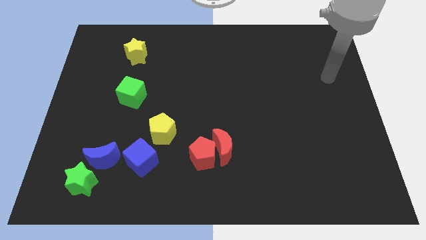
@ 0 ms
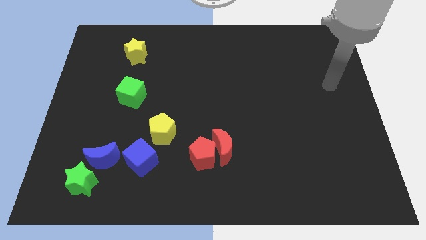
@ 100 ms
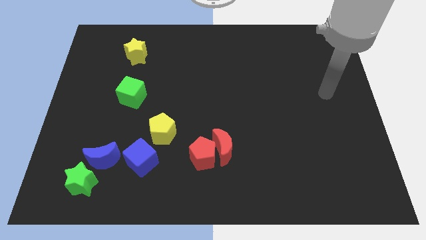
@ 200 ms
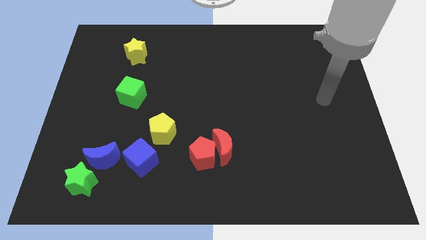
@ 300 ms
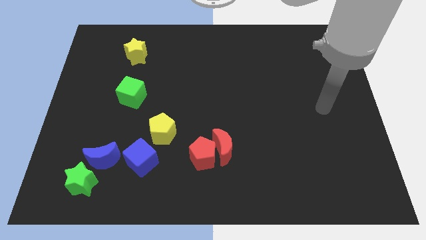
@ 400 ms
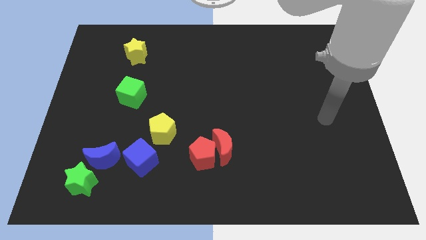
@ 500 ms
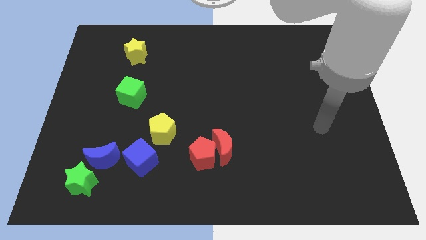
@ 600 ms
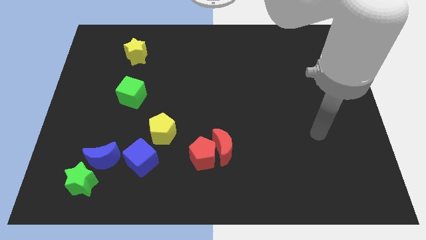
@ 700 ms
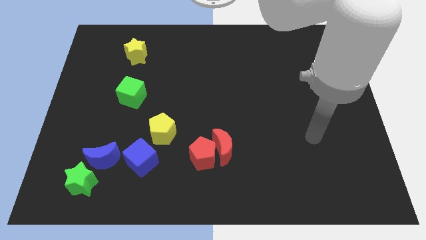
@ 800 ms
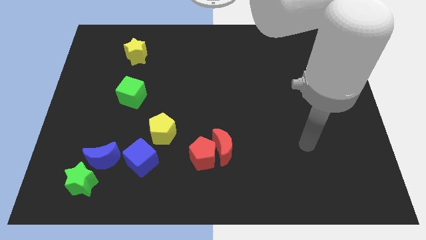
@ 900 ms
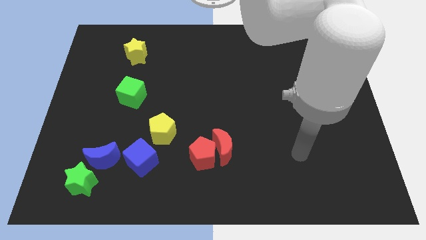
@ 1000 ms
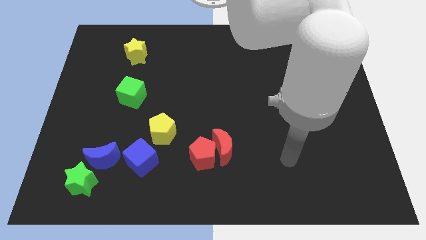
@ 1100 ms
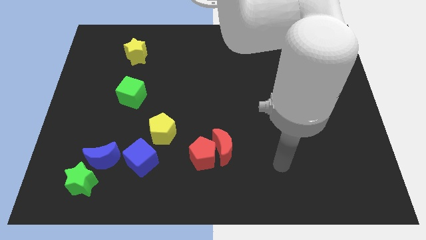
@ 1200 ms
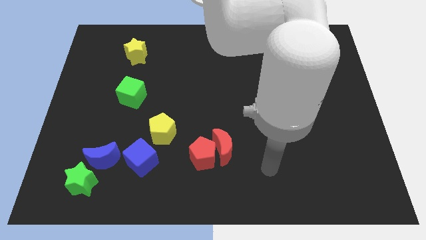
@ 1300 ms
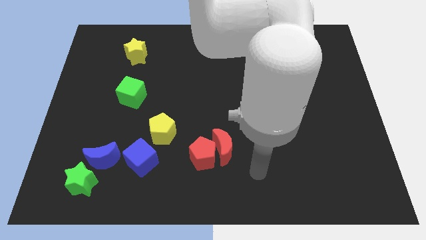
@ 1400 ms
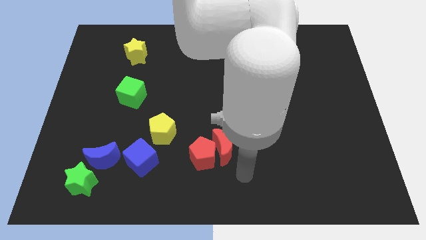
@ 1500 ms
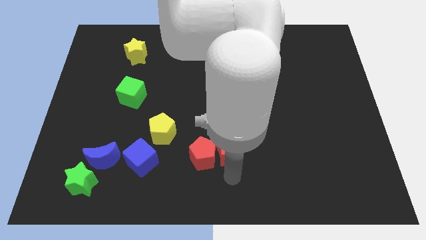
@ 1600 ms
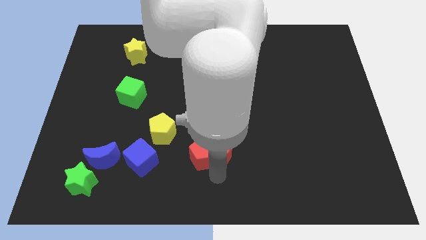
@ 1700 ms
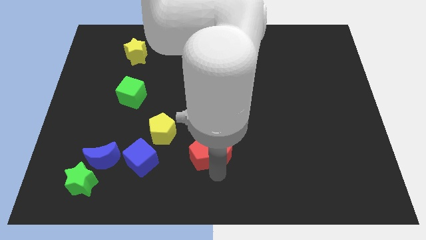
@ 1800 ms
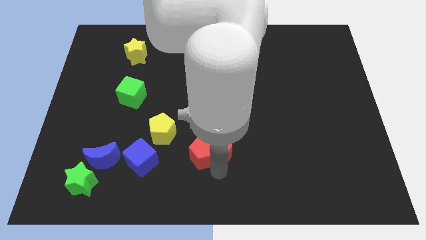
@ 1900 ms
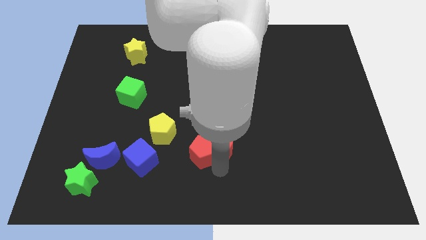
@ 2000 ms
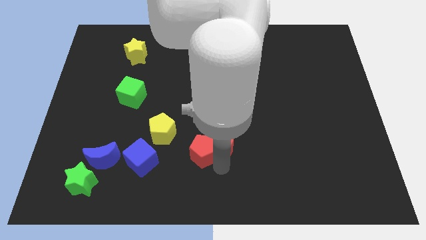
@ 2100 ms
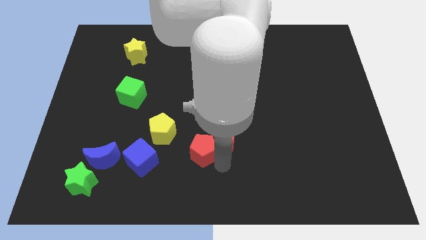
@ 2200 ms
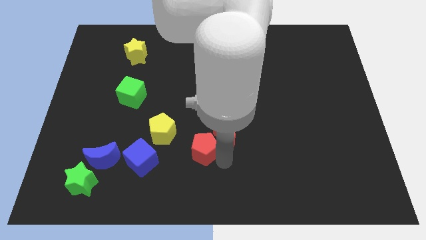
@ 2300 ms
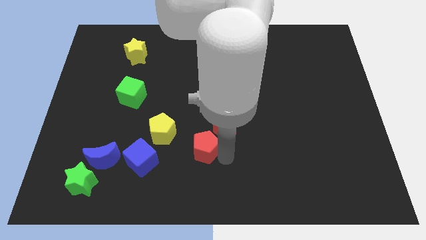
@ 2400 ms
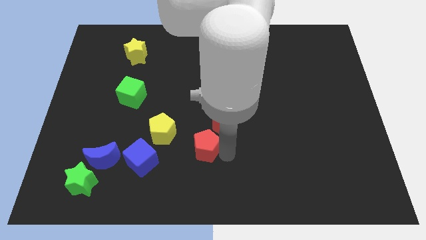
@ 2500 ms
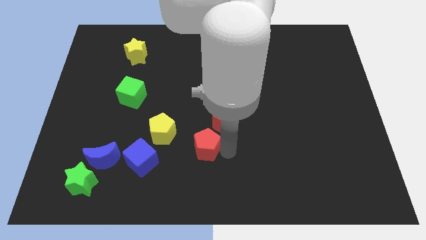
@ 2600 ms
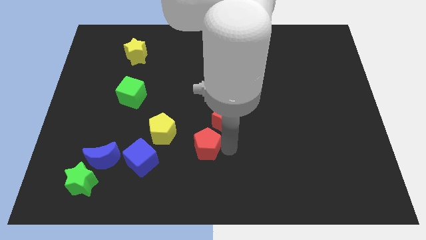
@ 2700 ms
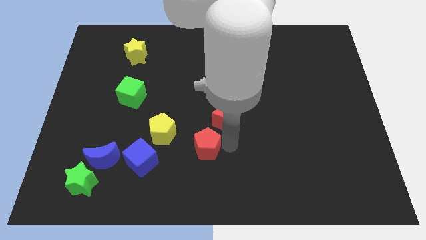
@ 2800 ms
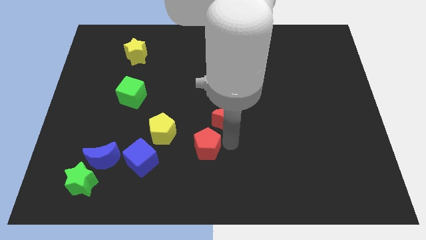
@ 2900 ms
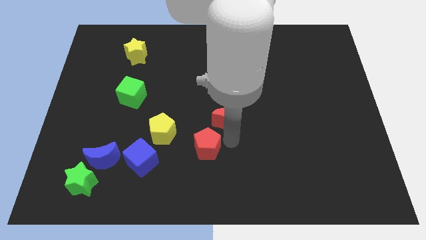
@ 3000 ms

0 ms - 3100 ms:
slide the red moon up slightly

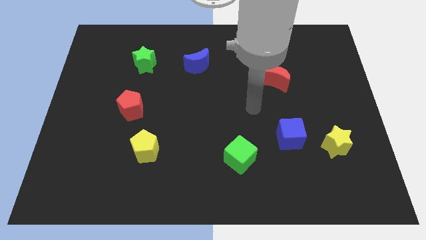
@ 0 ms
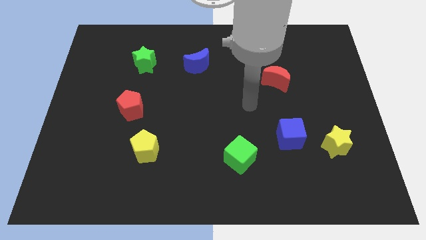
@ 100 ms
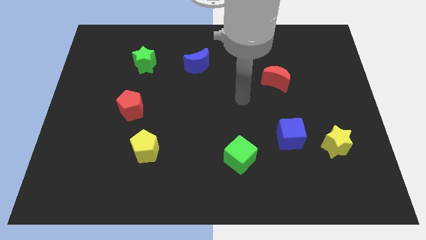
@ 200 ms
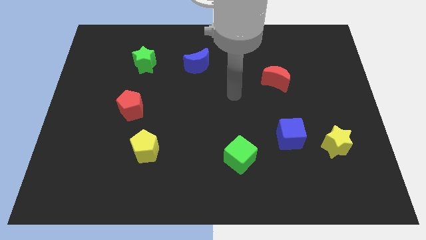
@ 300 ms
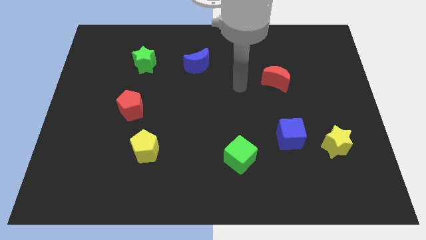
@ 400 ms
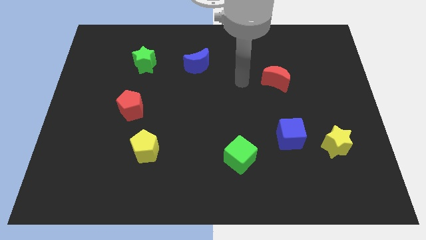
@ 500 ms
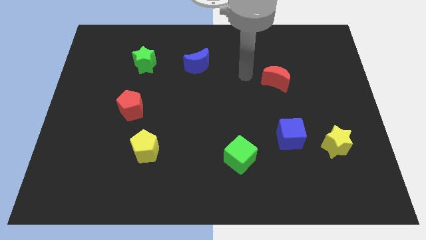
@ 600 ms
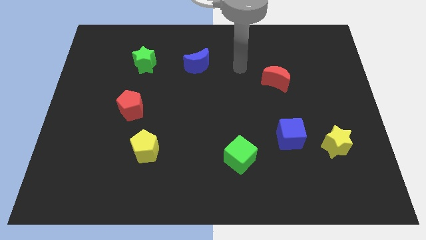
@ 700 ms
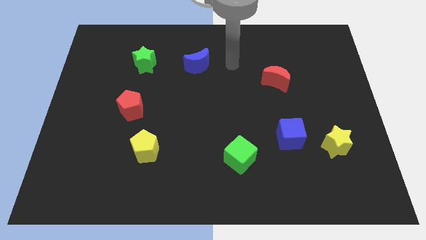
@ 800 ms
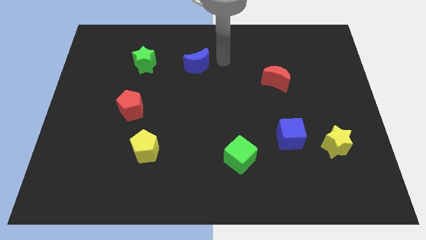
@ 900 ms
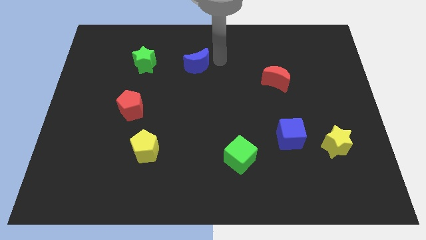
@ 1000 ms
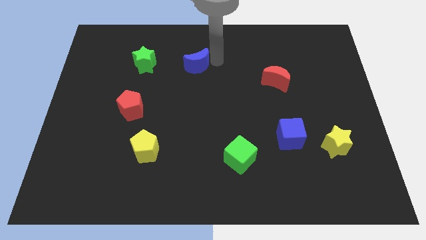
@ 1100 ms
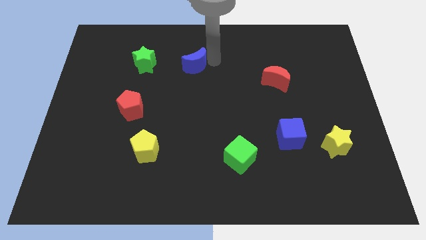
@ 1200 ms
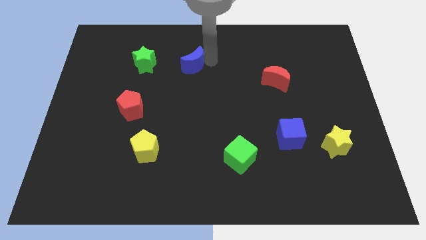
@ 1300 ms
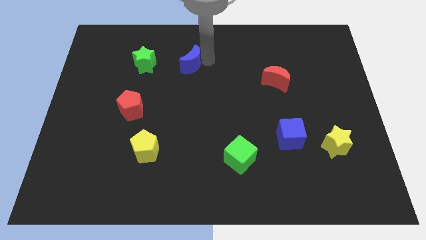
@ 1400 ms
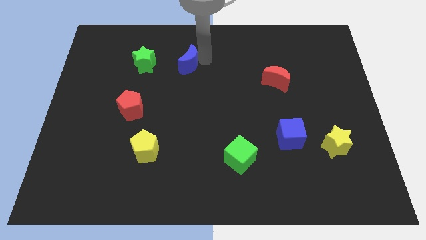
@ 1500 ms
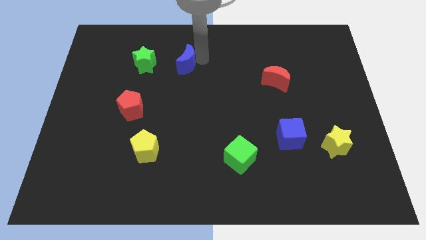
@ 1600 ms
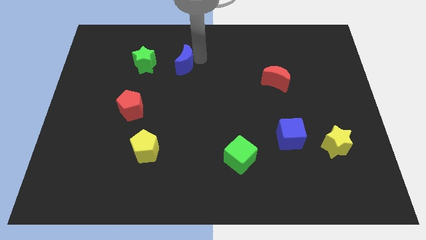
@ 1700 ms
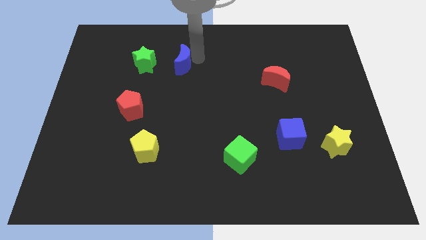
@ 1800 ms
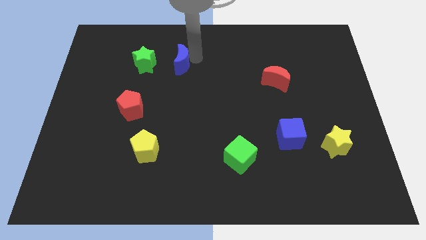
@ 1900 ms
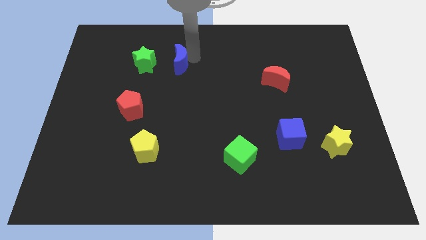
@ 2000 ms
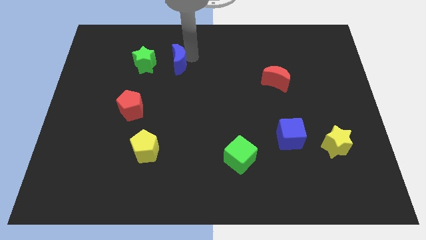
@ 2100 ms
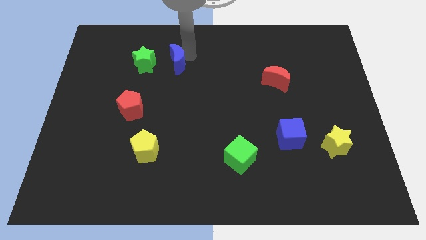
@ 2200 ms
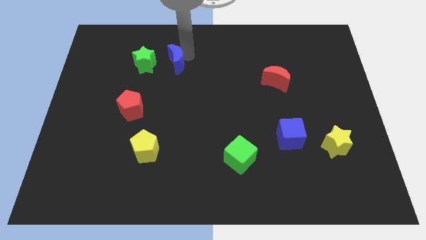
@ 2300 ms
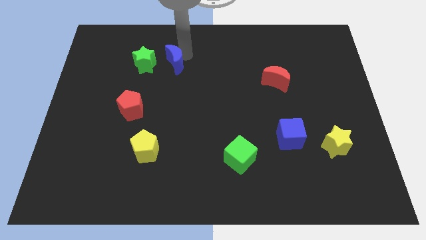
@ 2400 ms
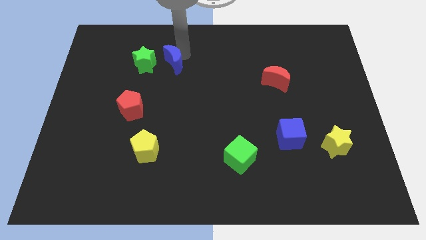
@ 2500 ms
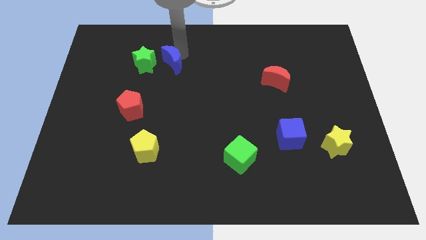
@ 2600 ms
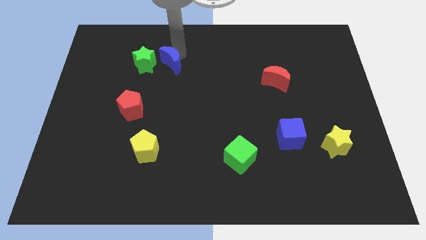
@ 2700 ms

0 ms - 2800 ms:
slide the blue moon a little bit left

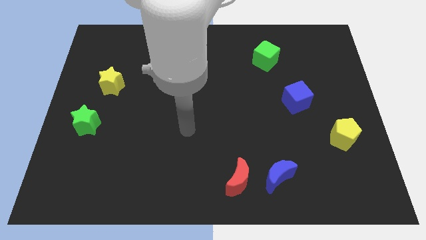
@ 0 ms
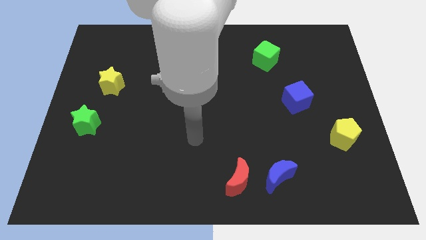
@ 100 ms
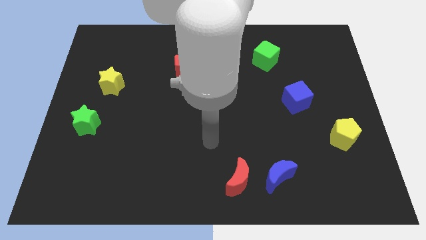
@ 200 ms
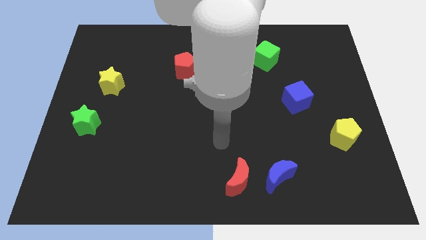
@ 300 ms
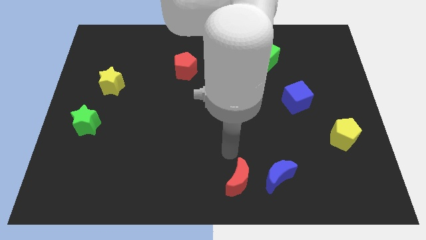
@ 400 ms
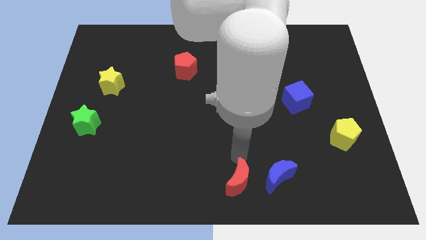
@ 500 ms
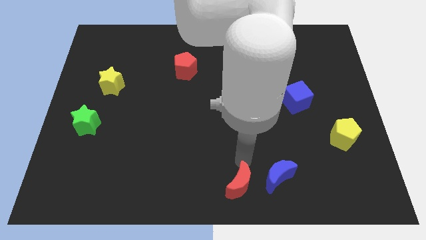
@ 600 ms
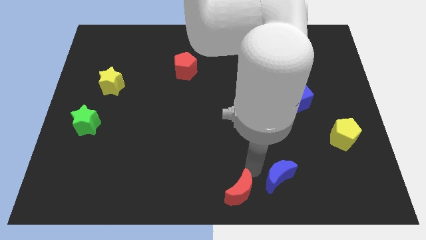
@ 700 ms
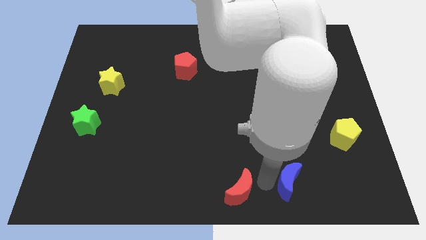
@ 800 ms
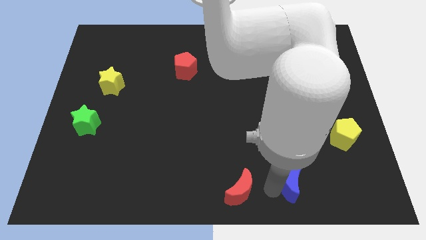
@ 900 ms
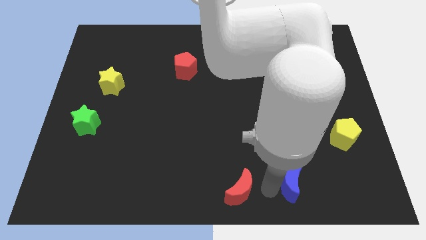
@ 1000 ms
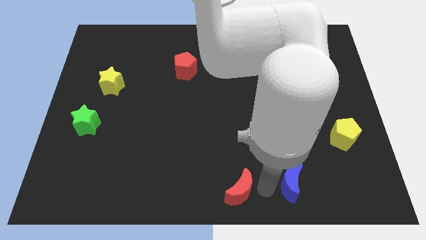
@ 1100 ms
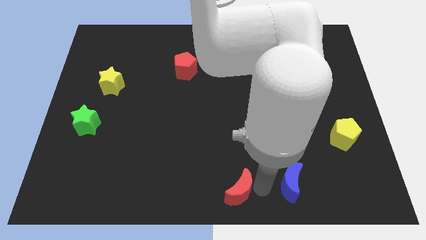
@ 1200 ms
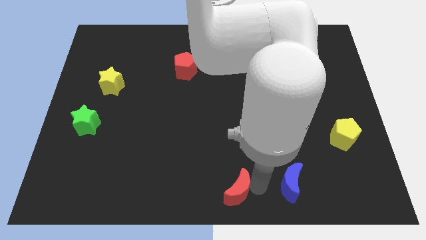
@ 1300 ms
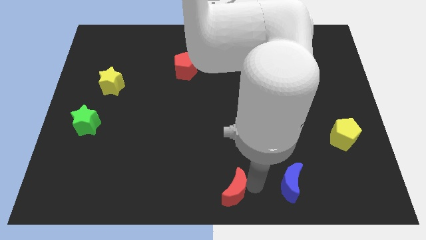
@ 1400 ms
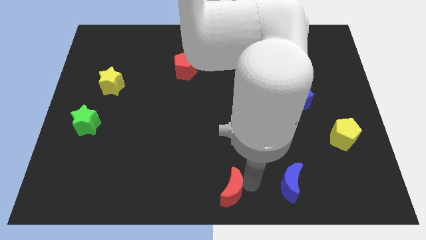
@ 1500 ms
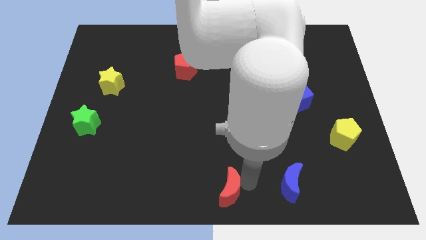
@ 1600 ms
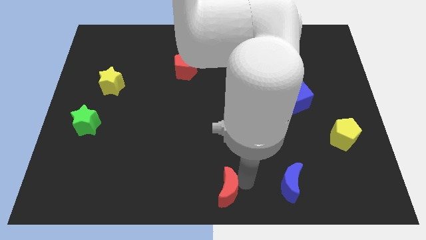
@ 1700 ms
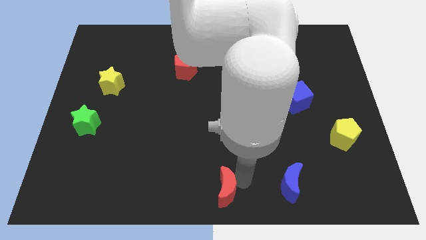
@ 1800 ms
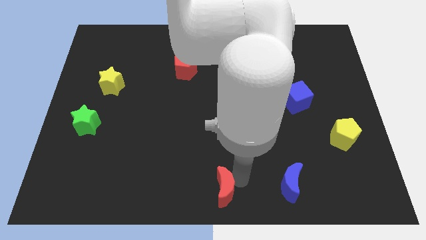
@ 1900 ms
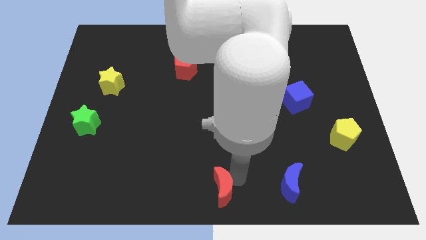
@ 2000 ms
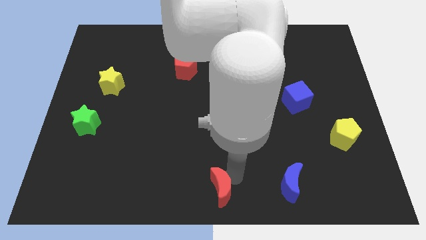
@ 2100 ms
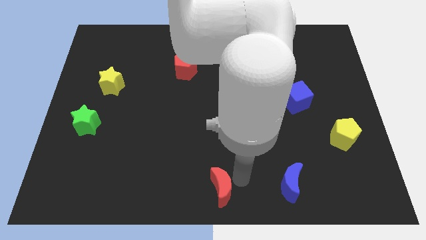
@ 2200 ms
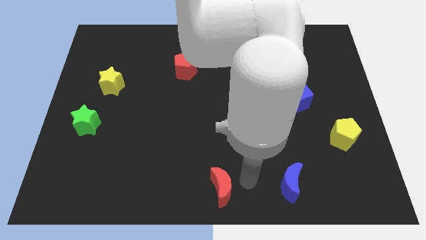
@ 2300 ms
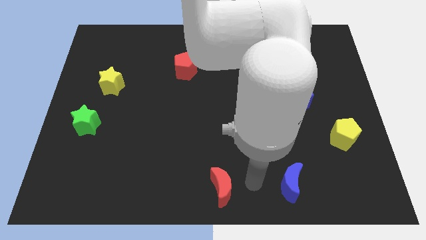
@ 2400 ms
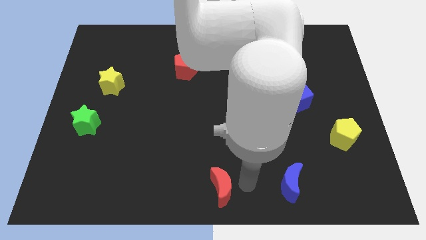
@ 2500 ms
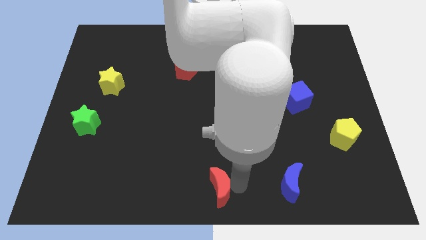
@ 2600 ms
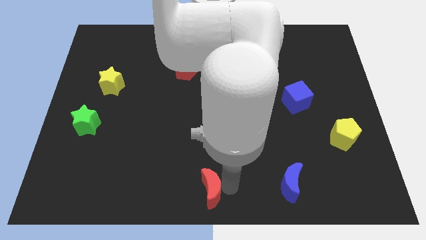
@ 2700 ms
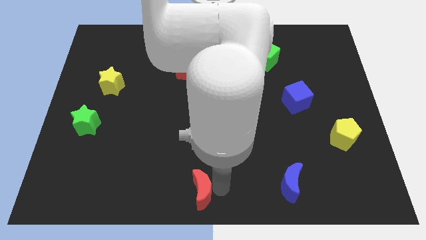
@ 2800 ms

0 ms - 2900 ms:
push the red moon to the left a little
